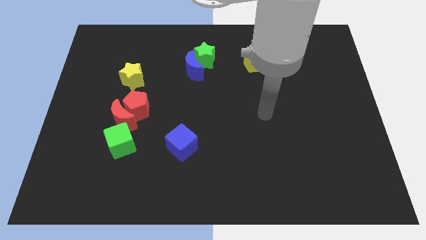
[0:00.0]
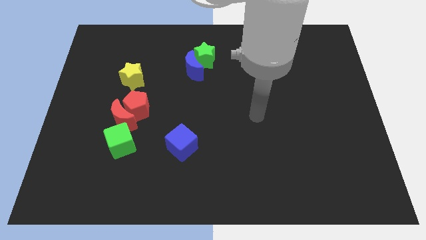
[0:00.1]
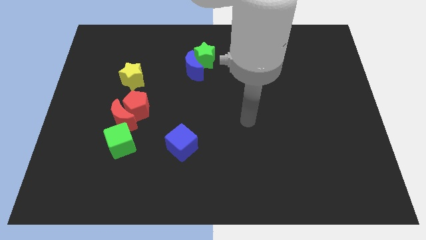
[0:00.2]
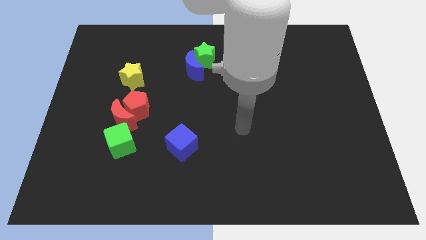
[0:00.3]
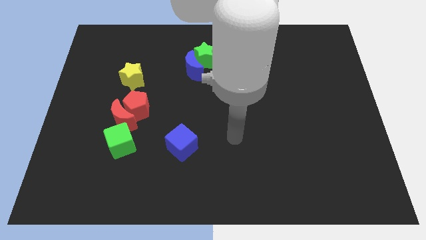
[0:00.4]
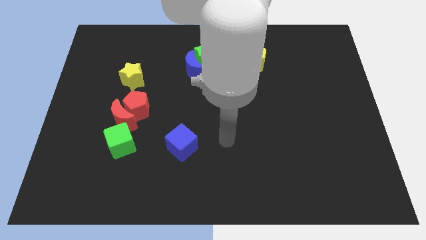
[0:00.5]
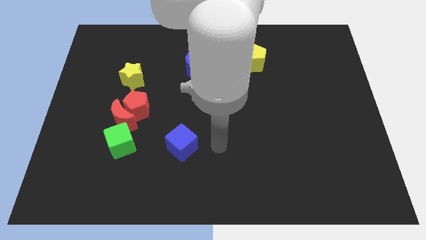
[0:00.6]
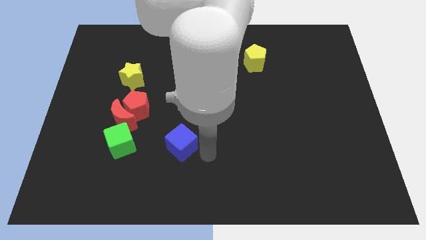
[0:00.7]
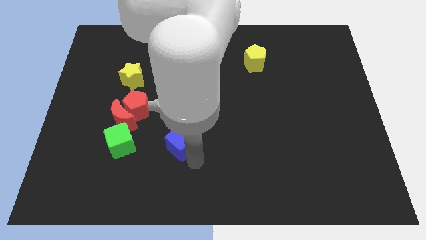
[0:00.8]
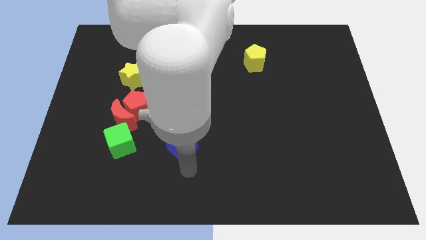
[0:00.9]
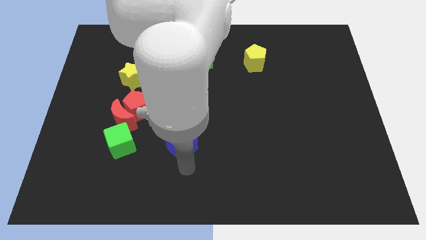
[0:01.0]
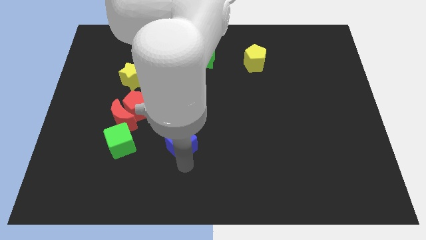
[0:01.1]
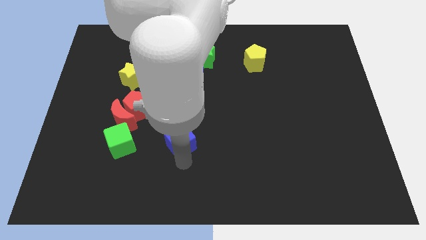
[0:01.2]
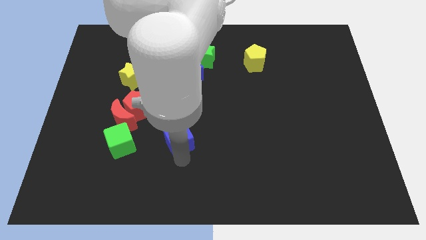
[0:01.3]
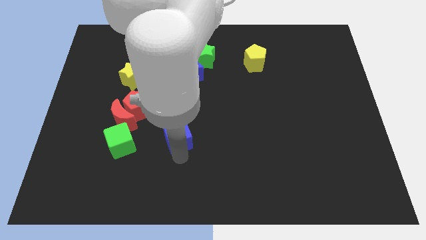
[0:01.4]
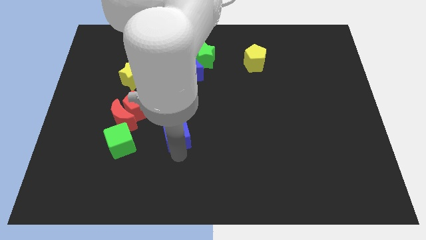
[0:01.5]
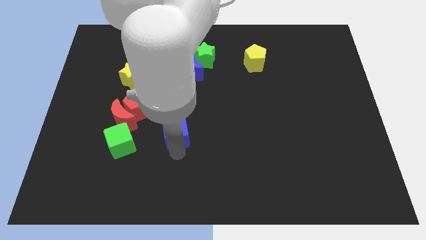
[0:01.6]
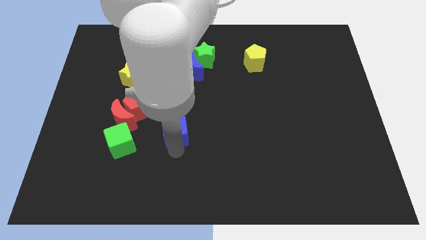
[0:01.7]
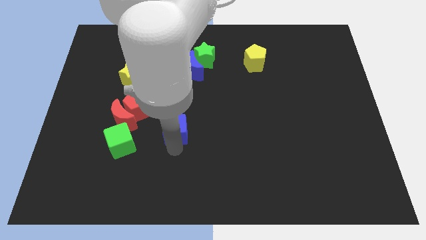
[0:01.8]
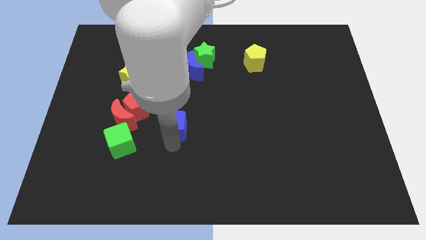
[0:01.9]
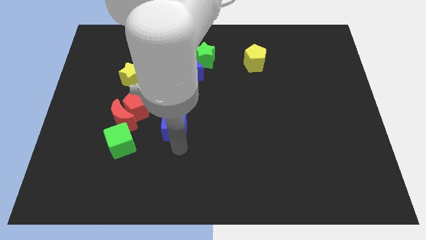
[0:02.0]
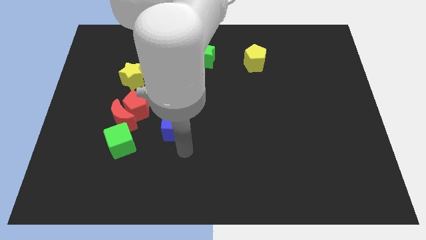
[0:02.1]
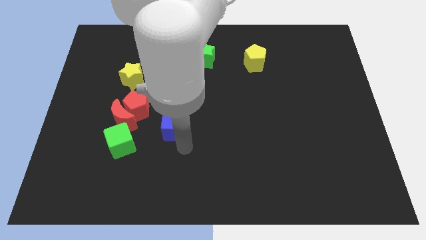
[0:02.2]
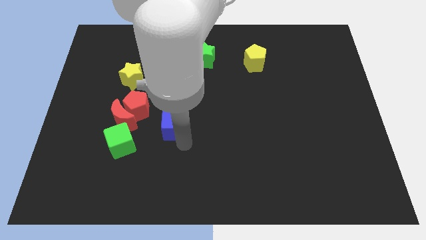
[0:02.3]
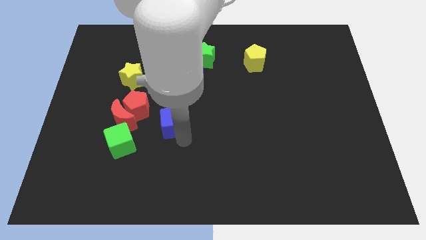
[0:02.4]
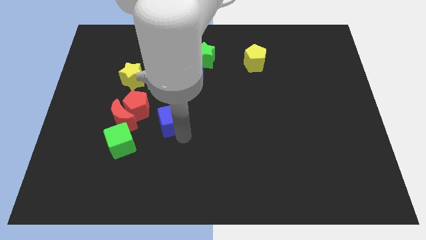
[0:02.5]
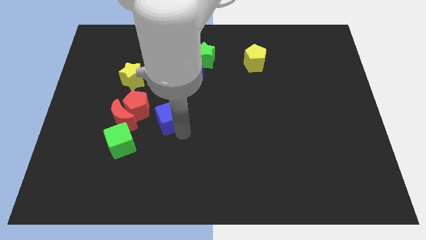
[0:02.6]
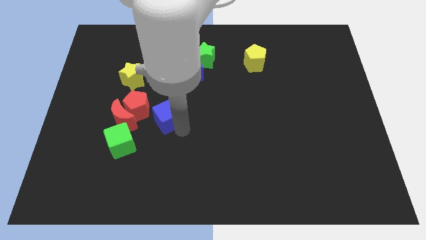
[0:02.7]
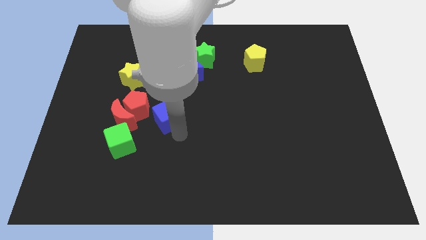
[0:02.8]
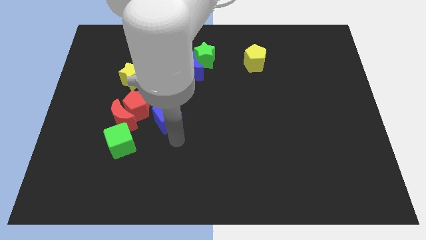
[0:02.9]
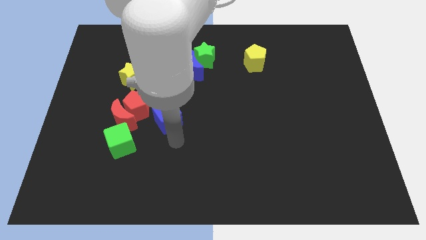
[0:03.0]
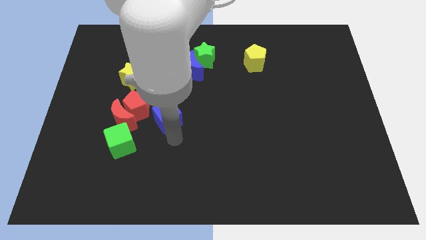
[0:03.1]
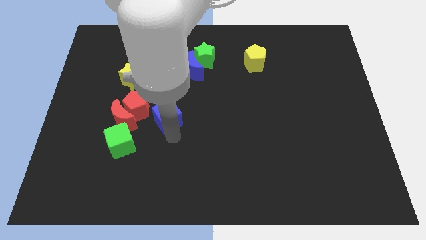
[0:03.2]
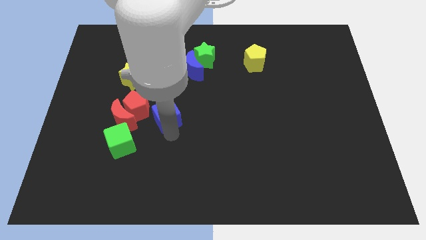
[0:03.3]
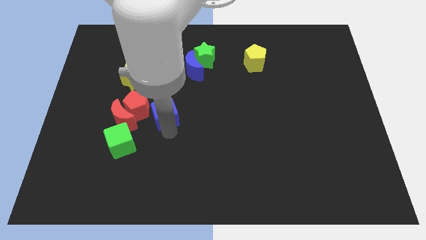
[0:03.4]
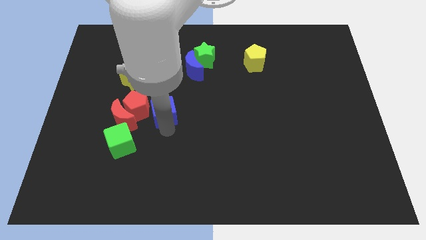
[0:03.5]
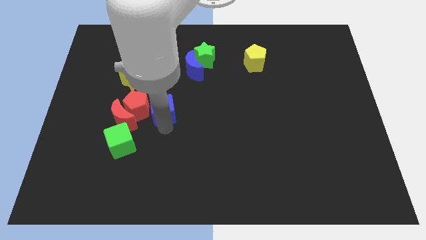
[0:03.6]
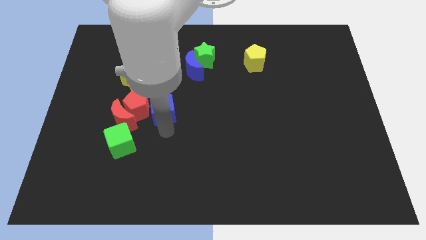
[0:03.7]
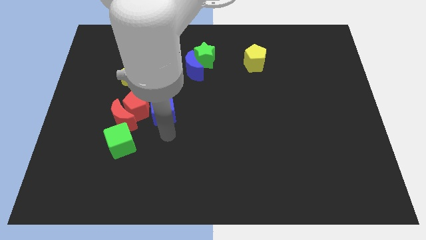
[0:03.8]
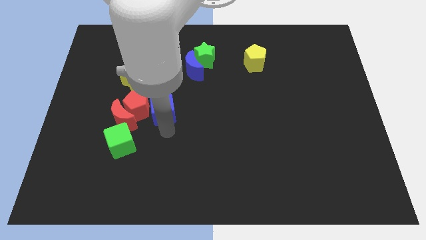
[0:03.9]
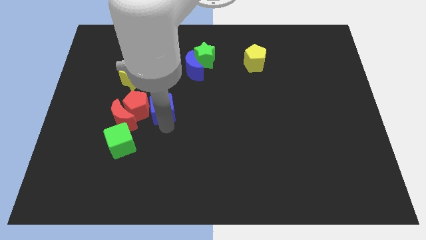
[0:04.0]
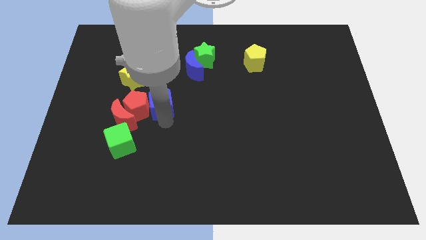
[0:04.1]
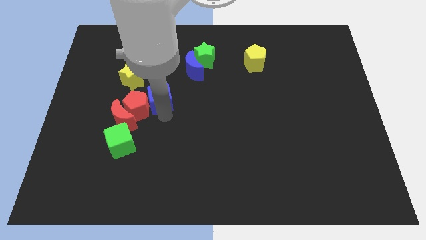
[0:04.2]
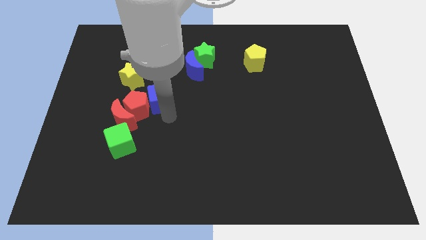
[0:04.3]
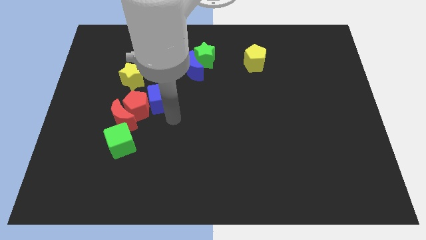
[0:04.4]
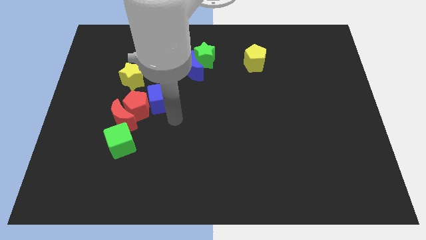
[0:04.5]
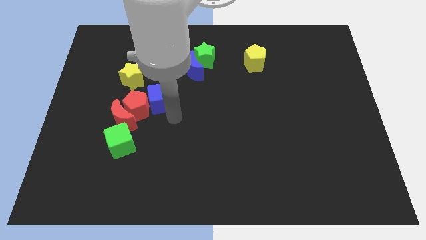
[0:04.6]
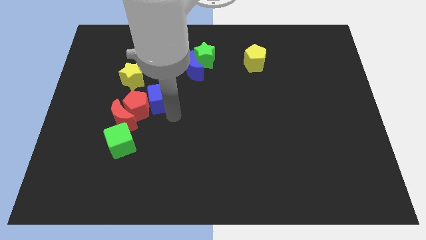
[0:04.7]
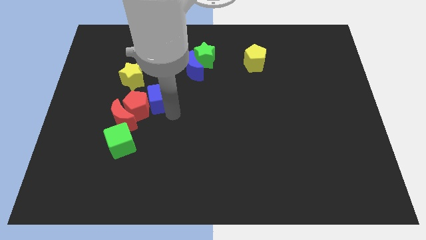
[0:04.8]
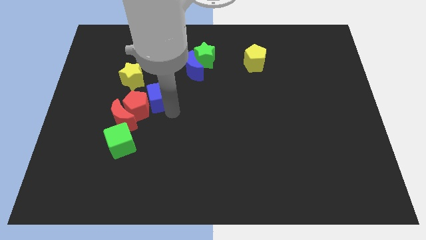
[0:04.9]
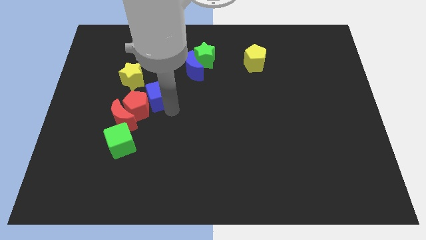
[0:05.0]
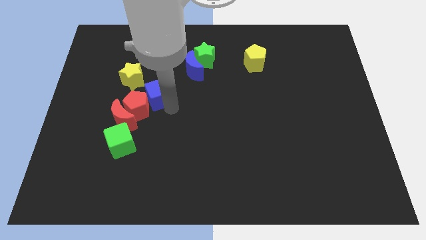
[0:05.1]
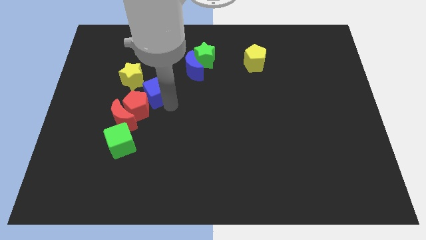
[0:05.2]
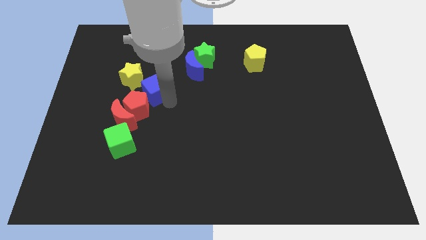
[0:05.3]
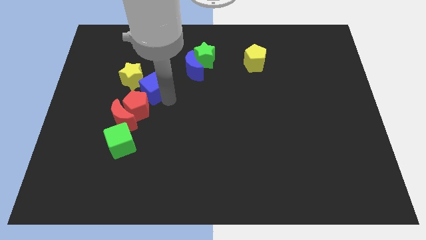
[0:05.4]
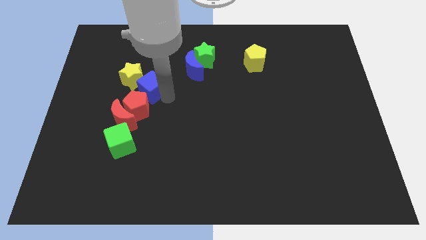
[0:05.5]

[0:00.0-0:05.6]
slide the blue cube close to the yellow star

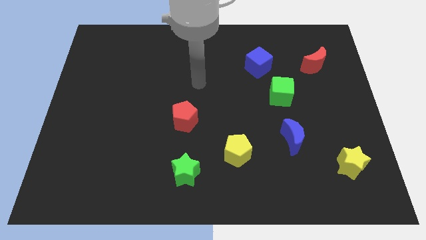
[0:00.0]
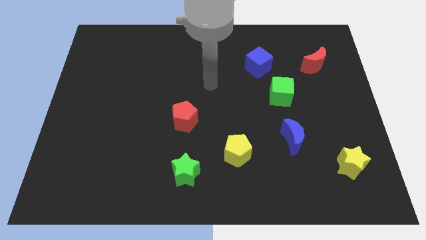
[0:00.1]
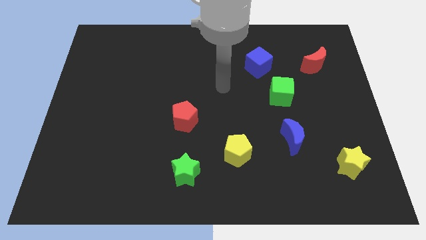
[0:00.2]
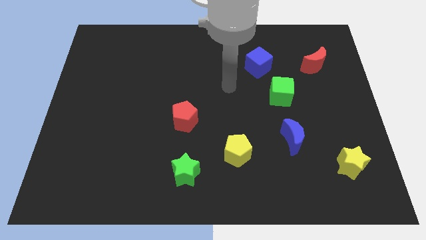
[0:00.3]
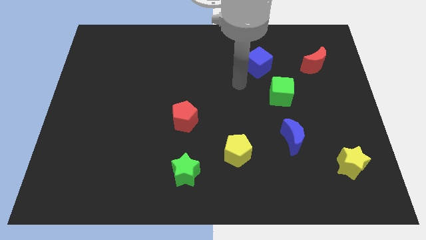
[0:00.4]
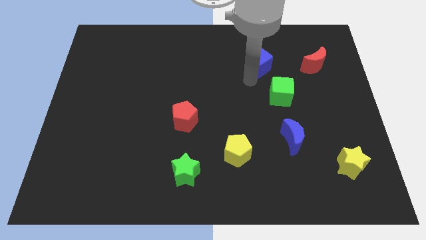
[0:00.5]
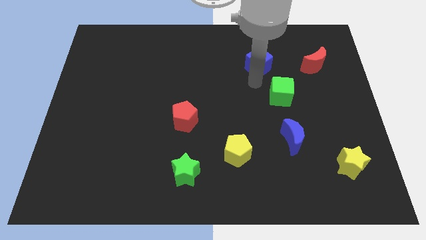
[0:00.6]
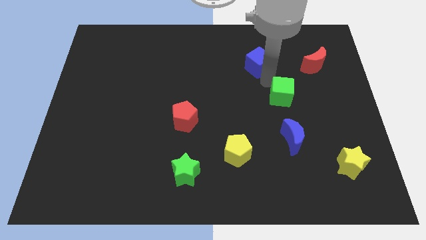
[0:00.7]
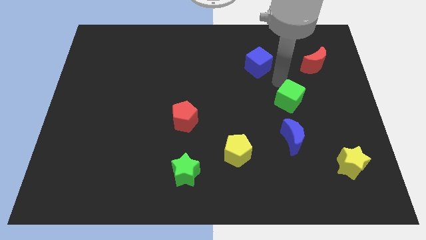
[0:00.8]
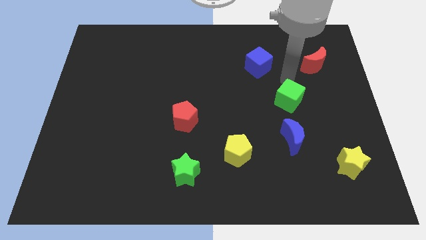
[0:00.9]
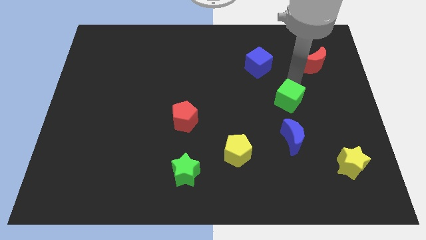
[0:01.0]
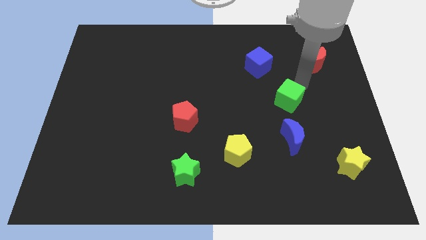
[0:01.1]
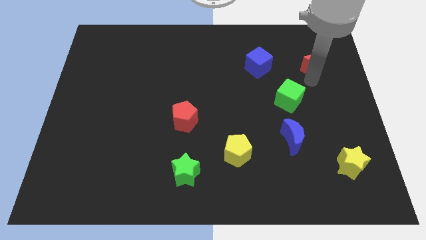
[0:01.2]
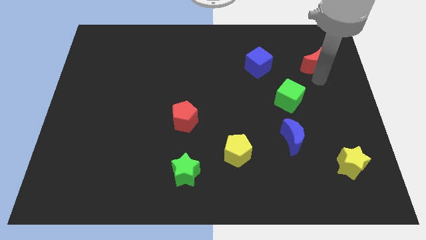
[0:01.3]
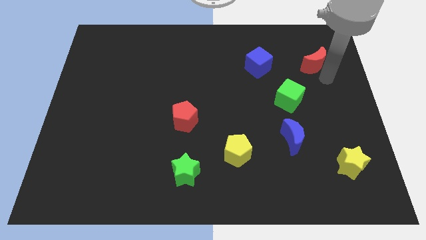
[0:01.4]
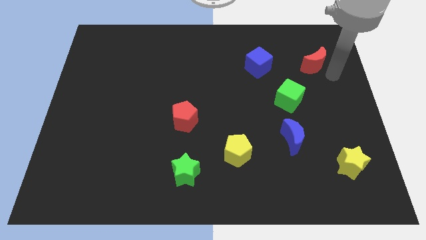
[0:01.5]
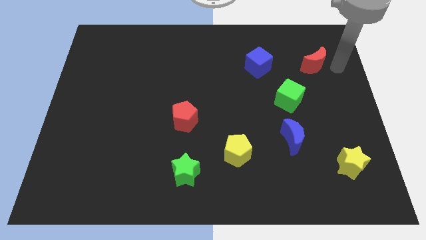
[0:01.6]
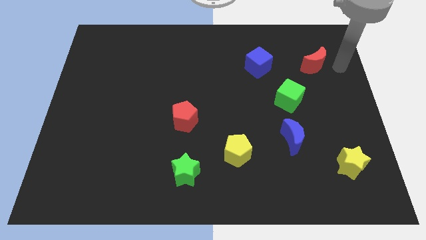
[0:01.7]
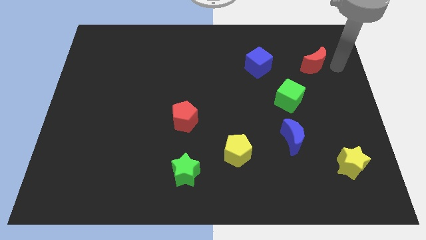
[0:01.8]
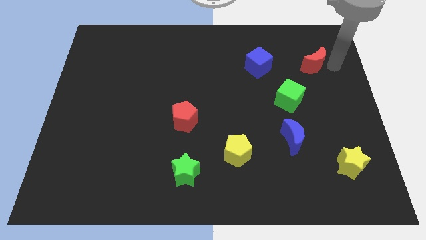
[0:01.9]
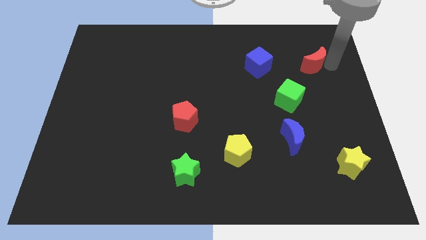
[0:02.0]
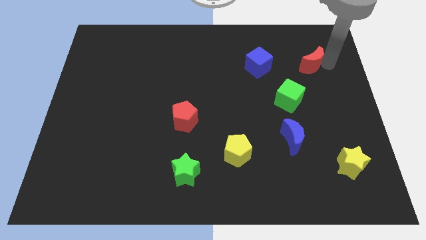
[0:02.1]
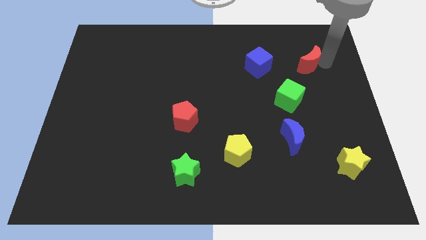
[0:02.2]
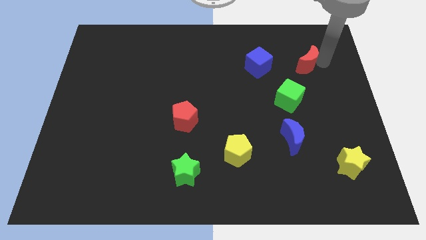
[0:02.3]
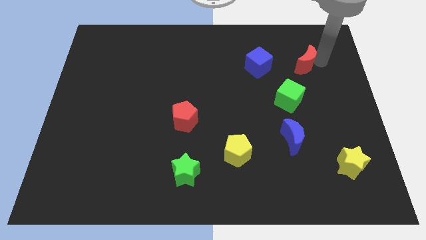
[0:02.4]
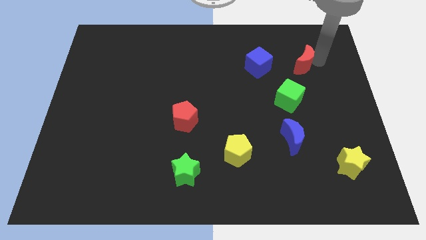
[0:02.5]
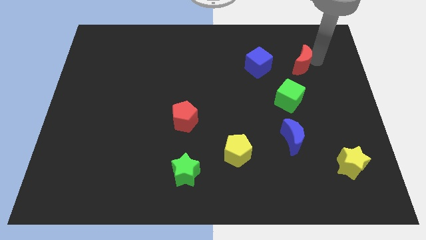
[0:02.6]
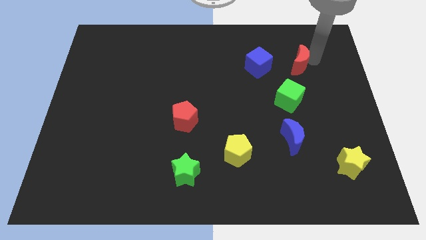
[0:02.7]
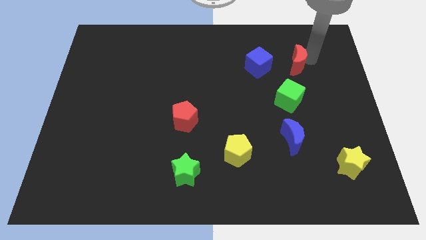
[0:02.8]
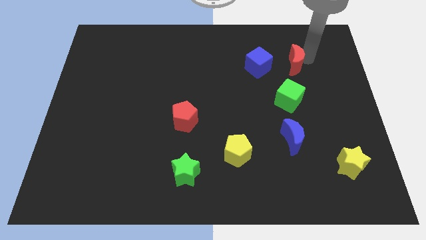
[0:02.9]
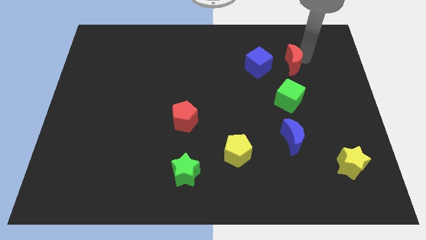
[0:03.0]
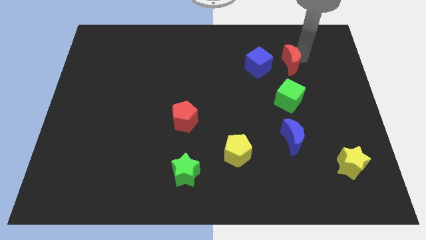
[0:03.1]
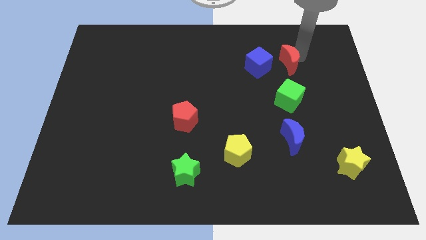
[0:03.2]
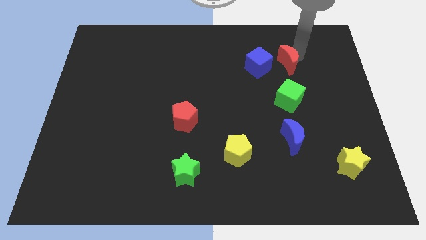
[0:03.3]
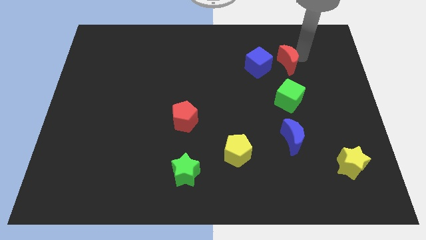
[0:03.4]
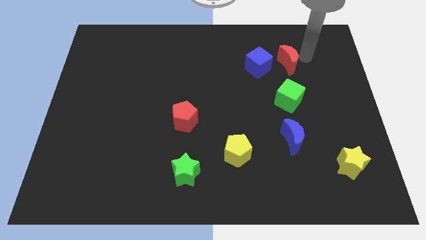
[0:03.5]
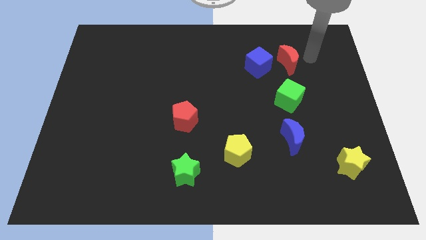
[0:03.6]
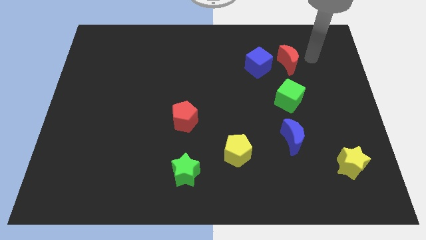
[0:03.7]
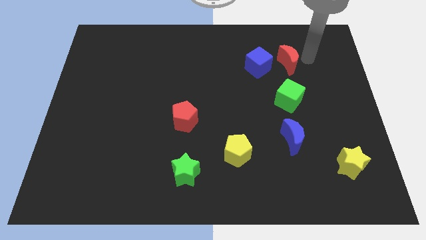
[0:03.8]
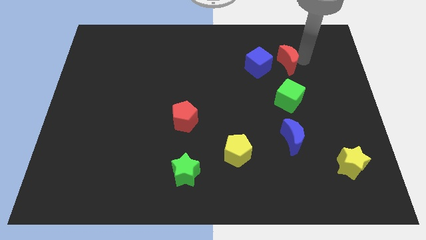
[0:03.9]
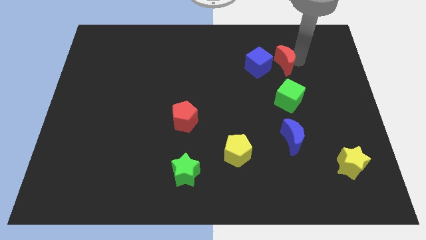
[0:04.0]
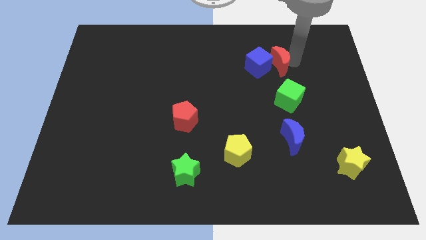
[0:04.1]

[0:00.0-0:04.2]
put the red moon towards the blue cube
